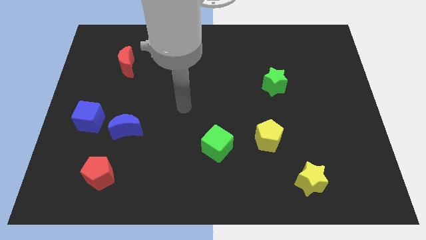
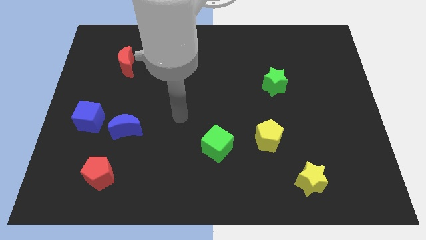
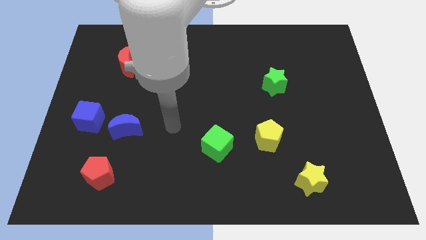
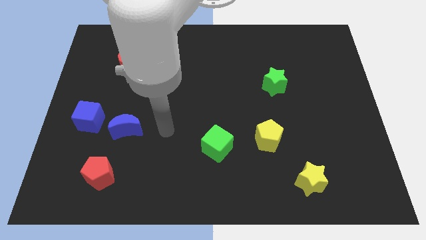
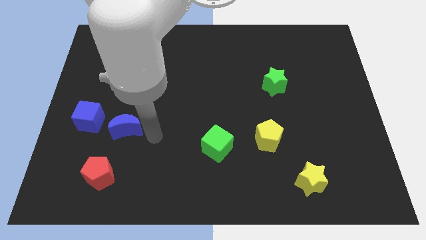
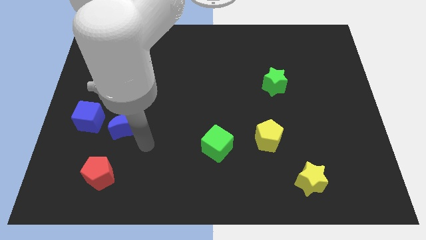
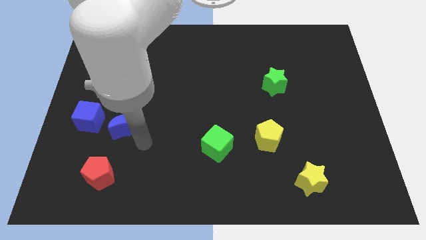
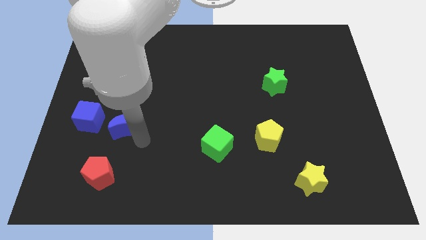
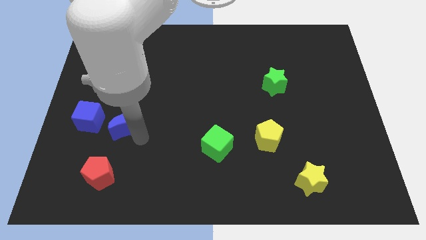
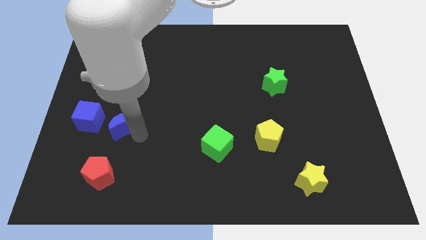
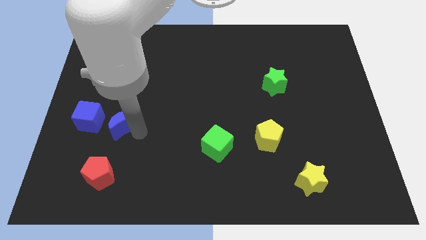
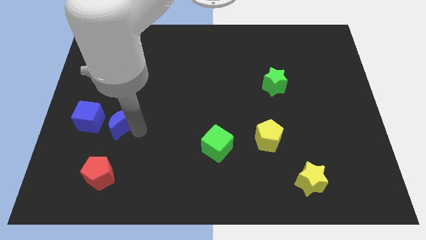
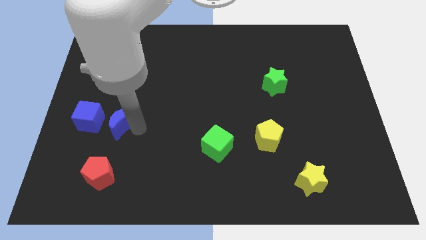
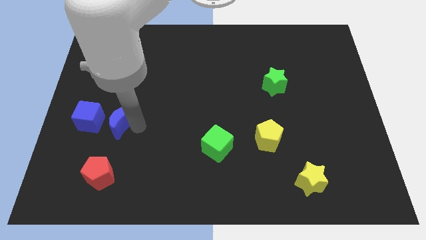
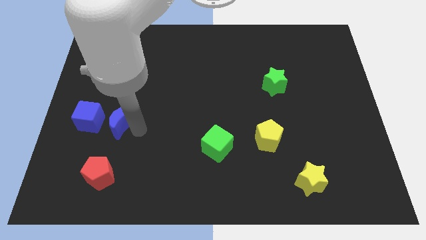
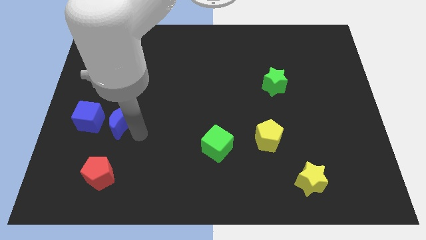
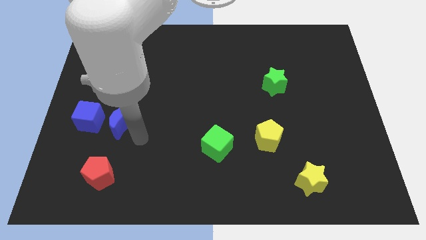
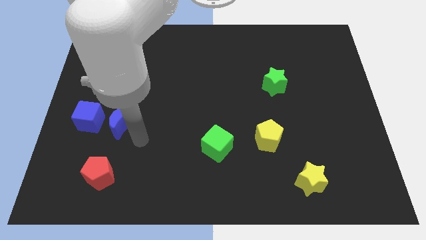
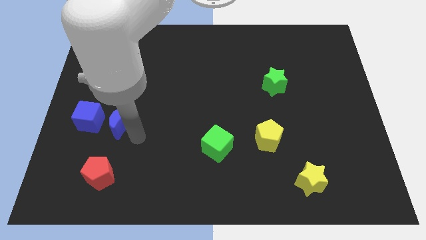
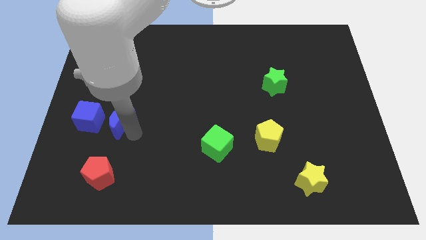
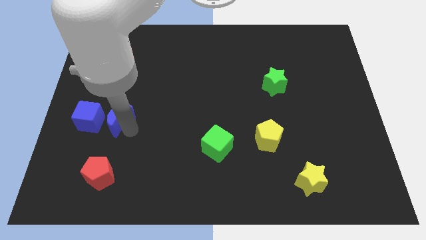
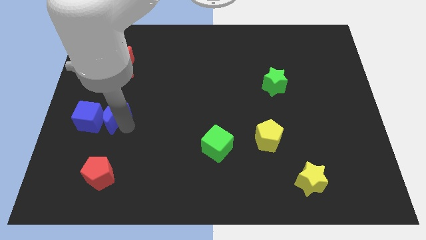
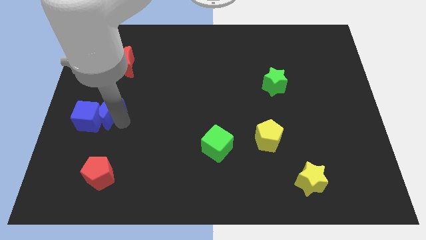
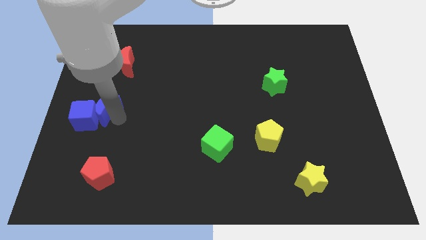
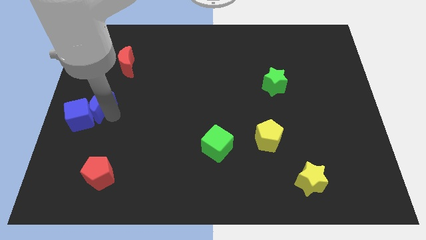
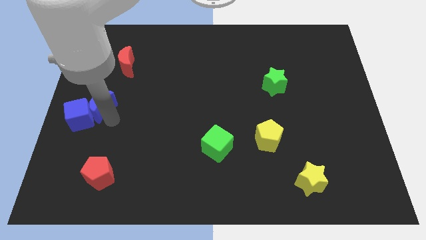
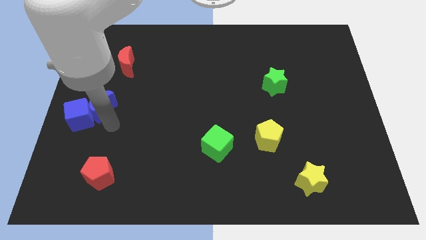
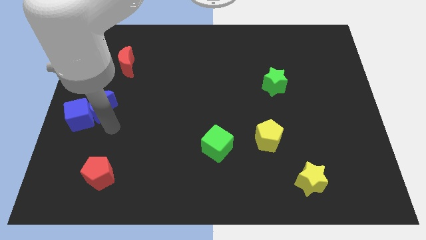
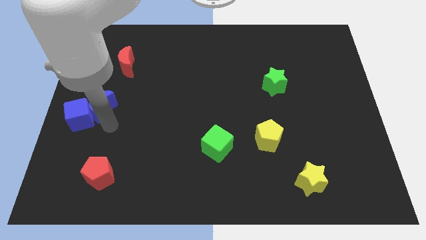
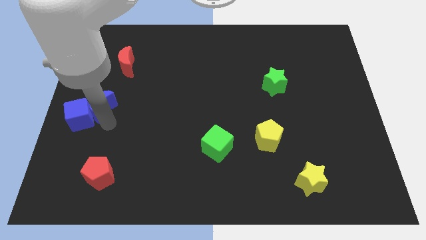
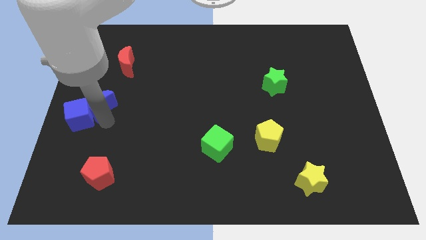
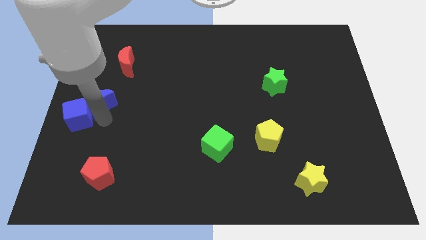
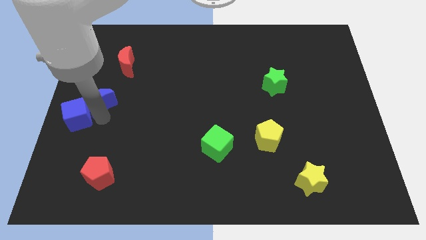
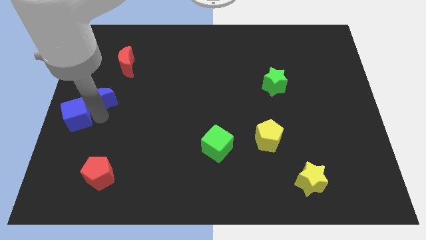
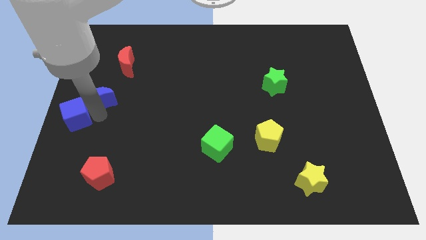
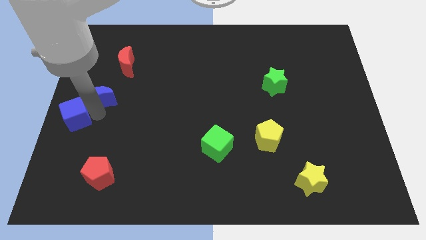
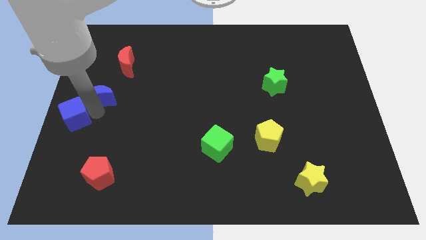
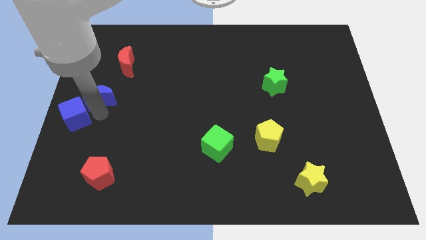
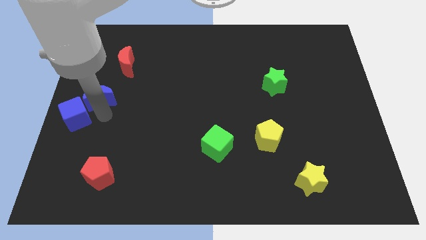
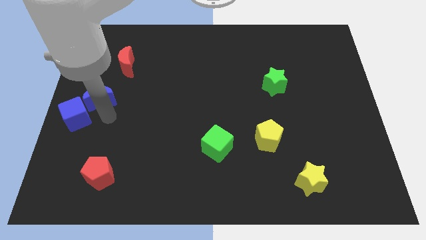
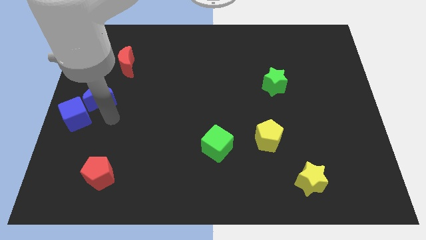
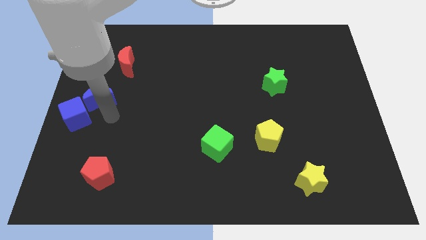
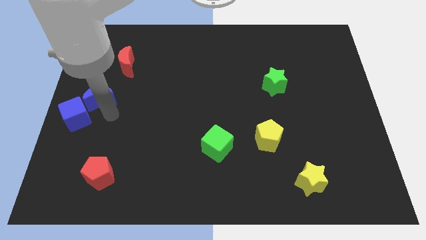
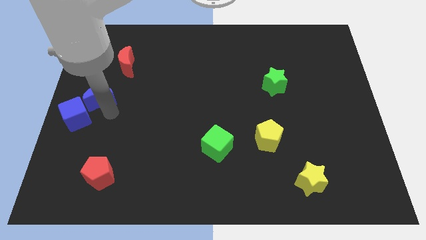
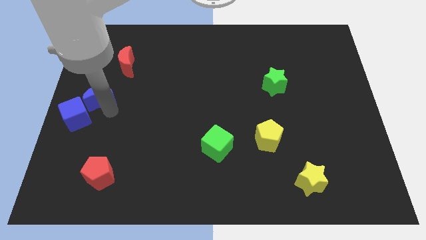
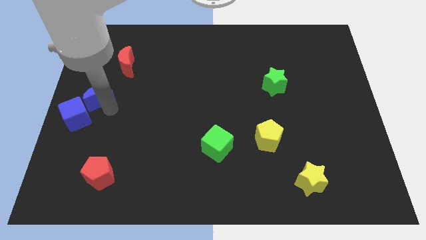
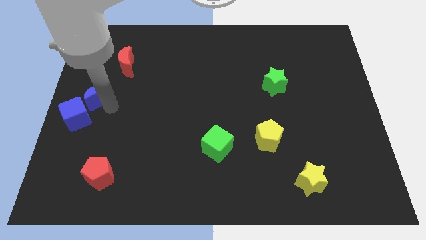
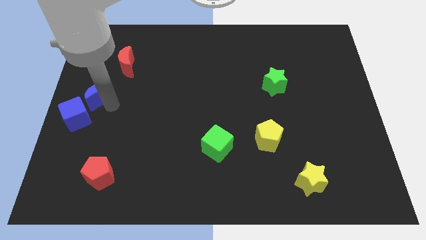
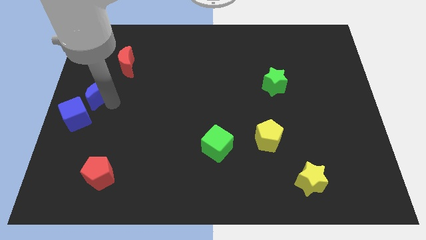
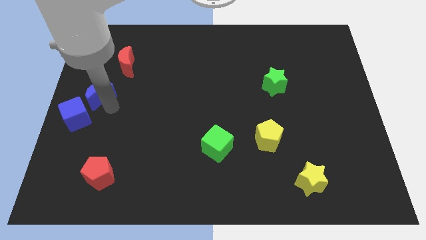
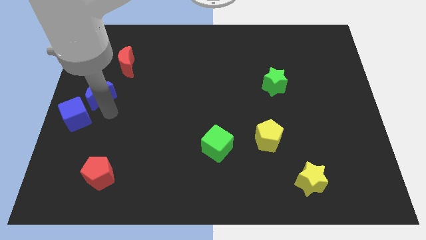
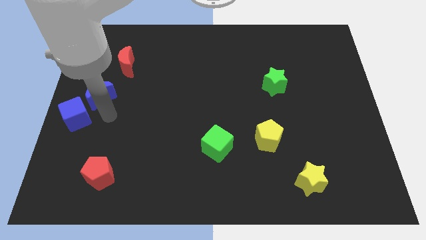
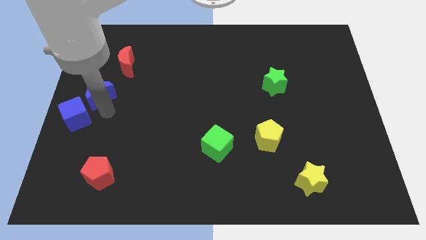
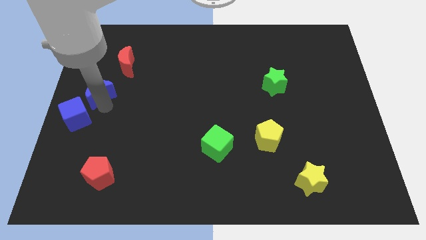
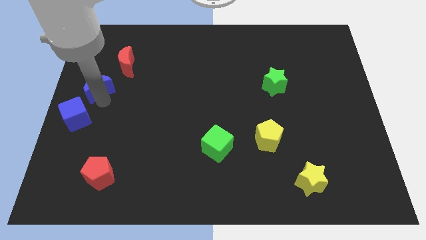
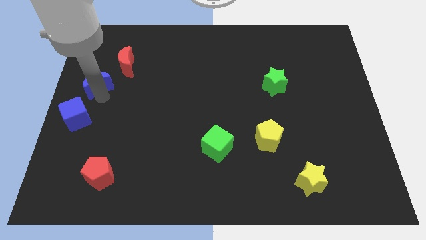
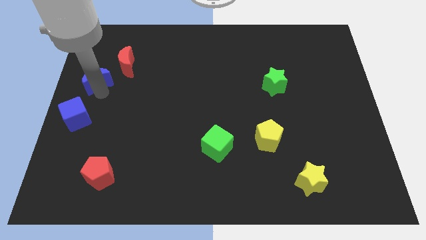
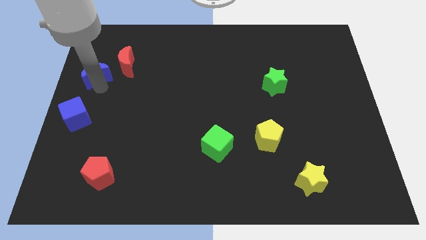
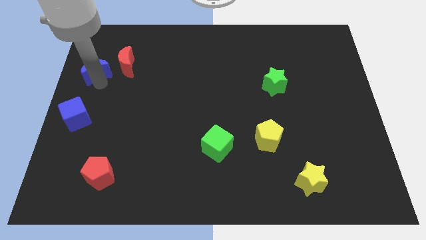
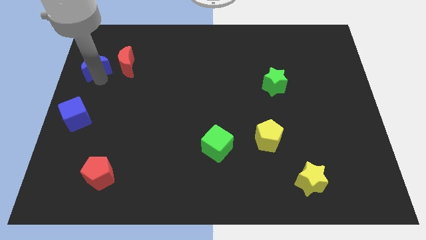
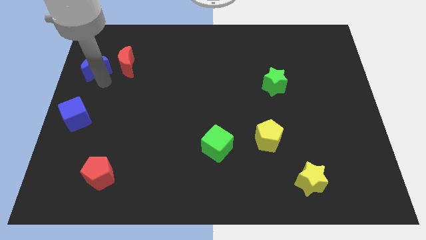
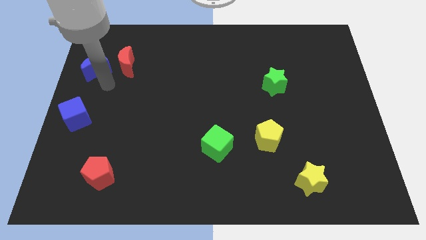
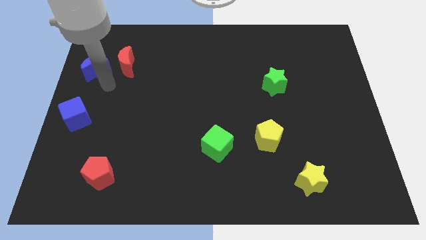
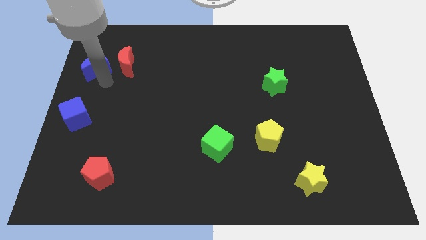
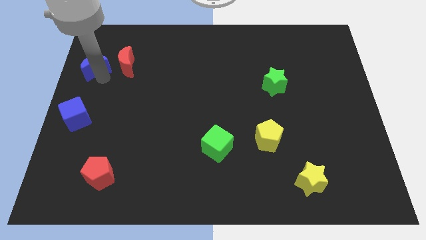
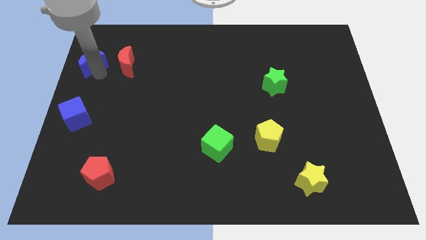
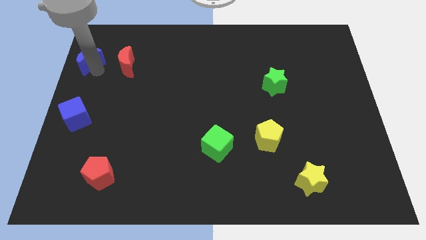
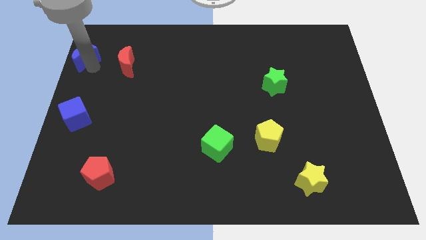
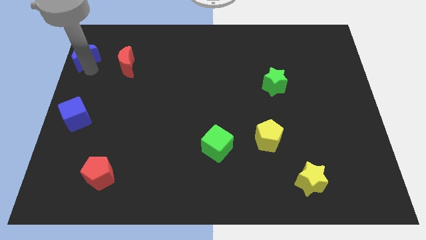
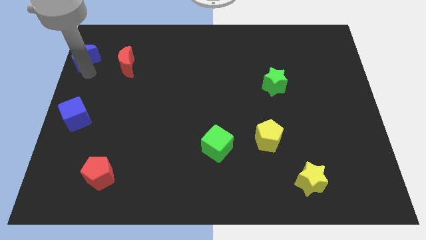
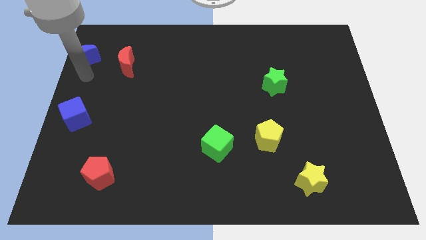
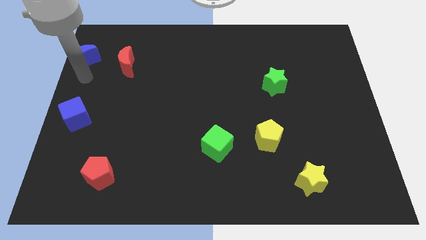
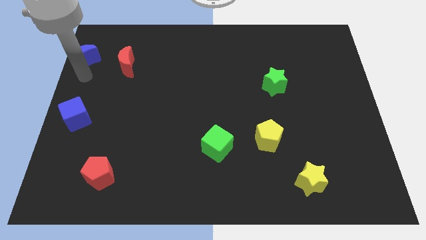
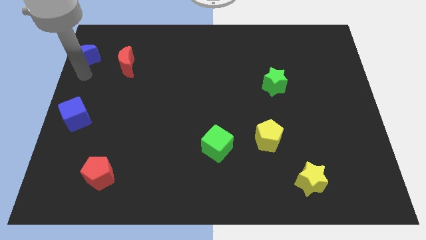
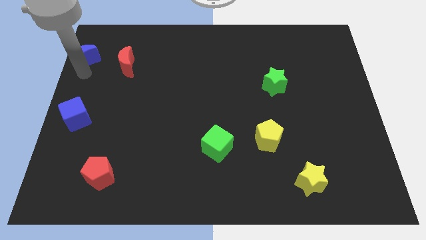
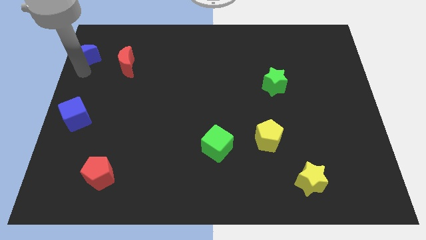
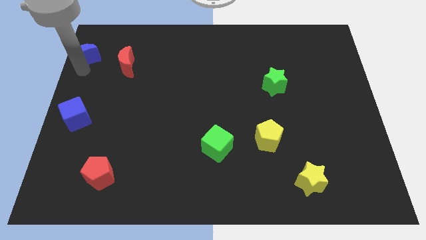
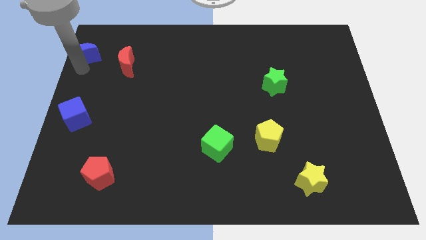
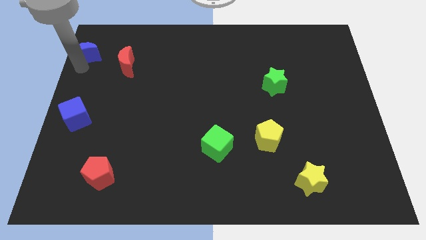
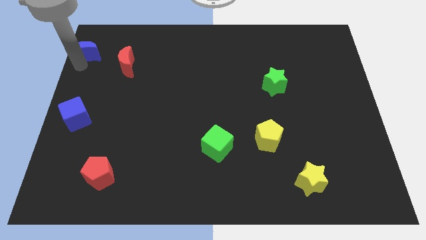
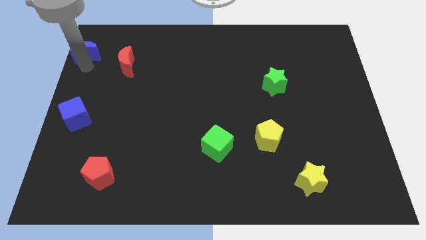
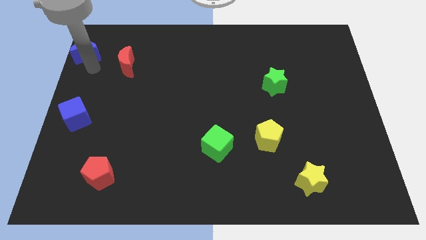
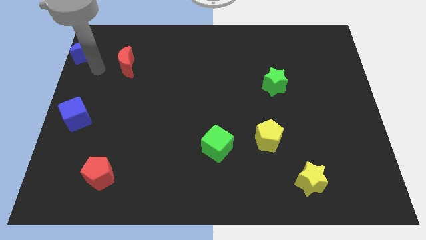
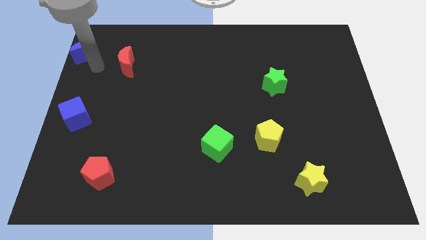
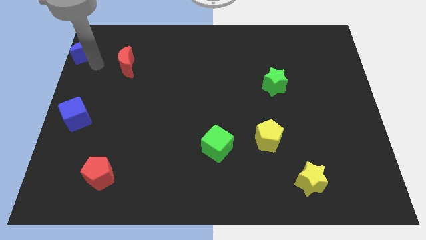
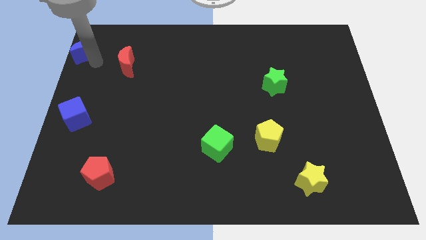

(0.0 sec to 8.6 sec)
move the blue moon to the upper left corner
